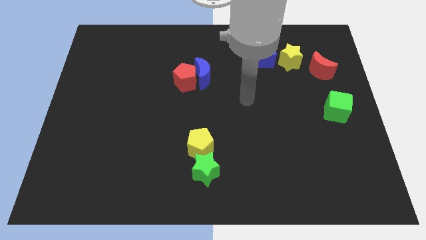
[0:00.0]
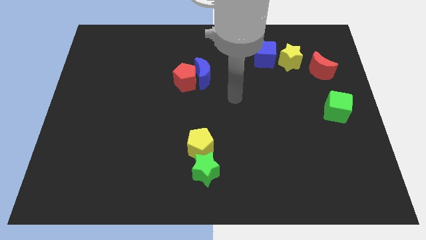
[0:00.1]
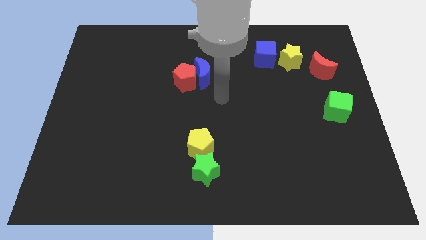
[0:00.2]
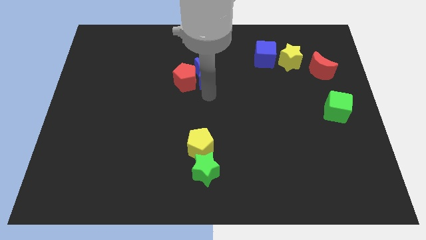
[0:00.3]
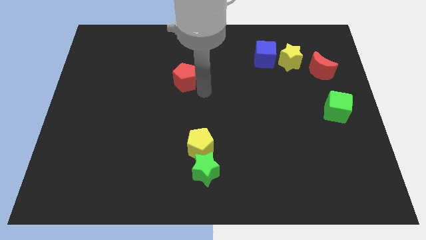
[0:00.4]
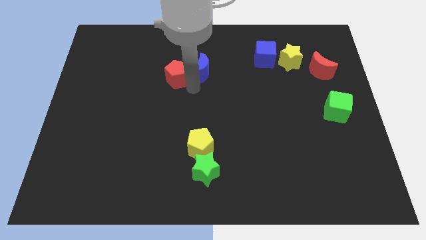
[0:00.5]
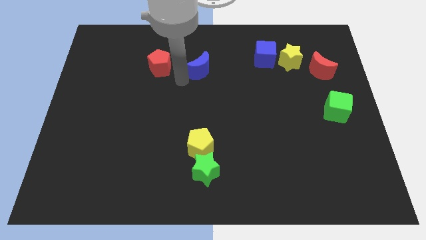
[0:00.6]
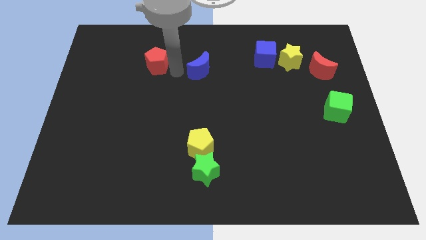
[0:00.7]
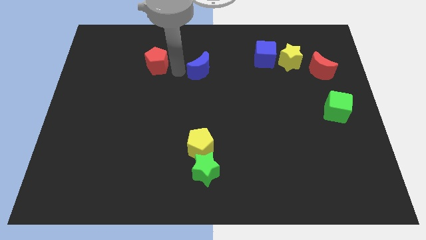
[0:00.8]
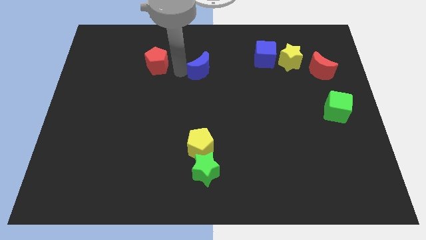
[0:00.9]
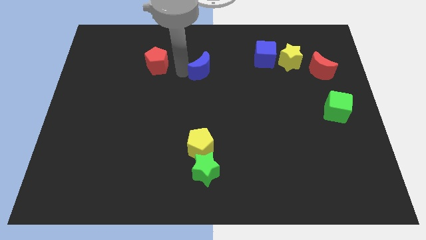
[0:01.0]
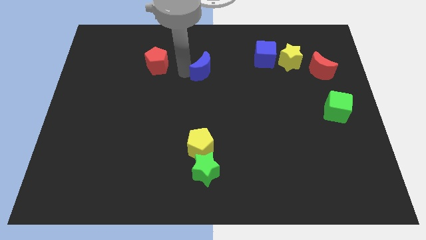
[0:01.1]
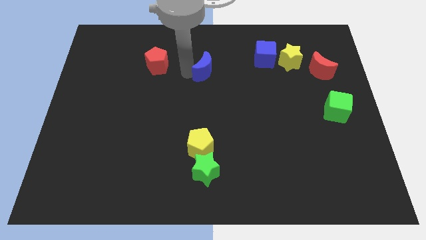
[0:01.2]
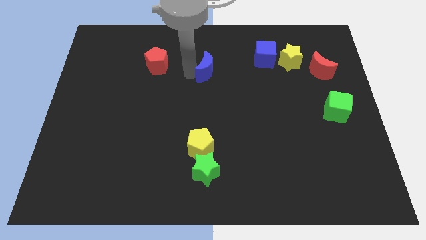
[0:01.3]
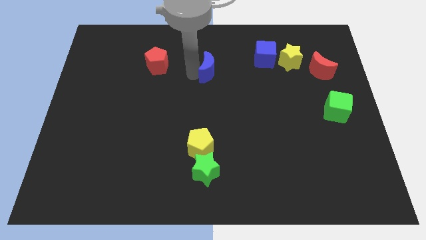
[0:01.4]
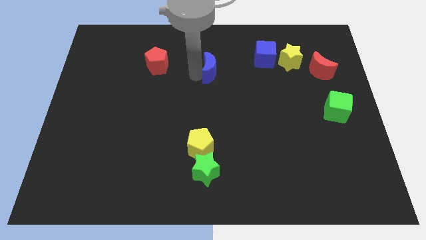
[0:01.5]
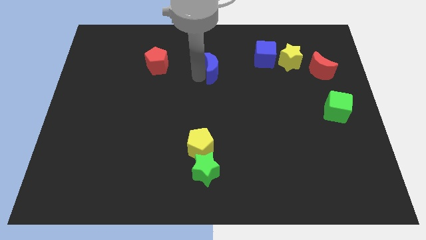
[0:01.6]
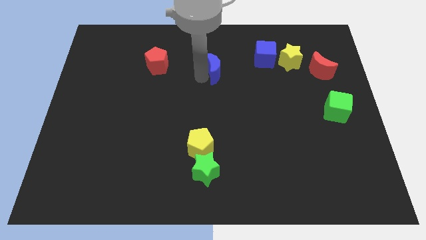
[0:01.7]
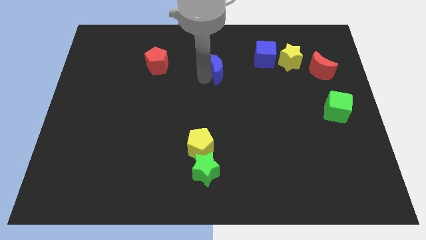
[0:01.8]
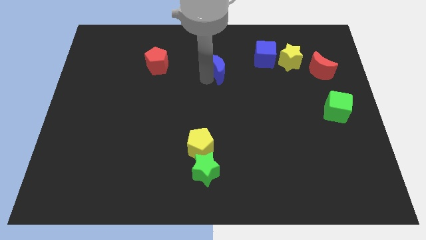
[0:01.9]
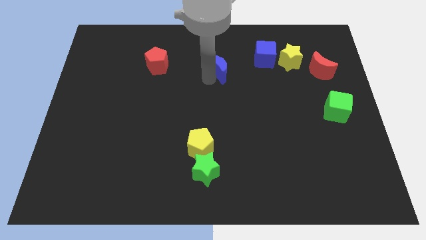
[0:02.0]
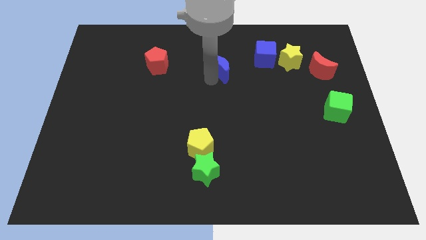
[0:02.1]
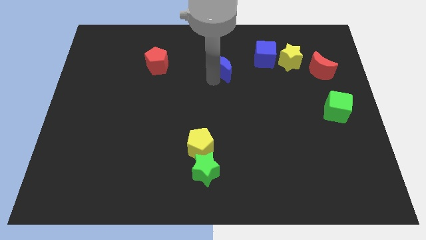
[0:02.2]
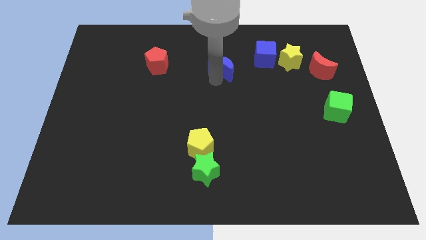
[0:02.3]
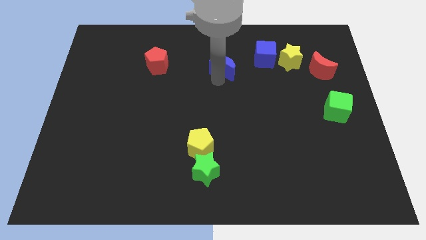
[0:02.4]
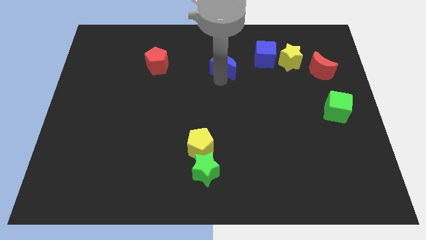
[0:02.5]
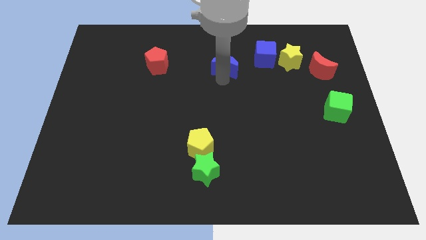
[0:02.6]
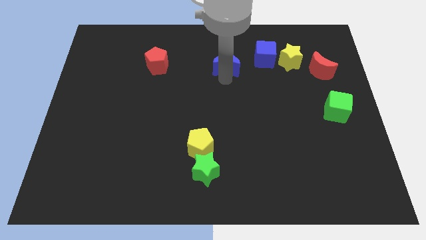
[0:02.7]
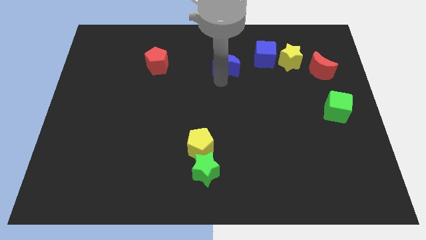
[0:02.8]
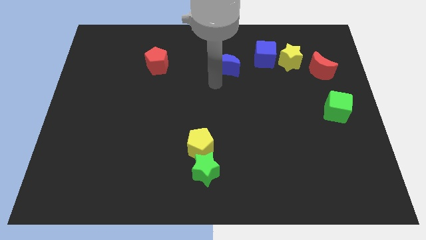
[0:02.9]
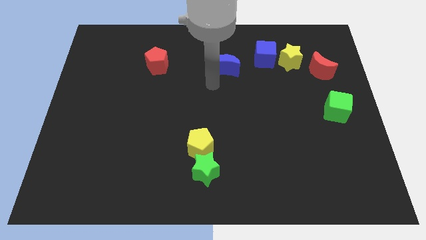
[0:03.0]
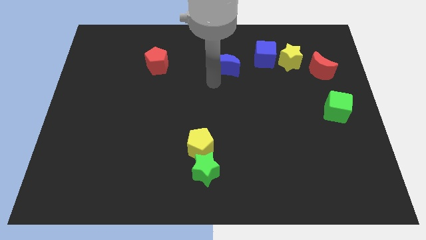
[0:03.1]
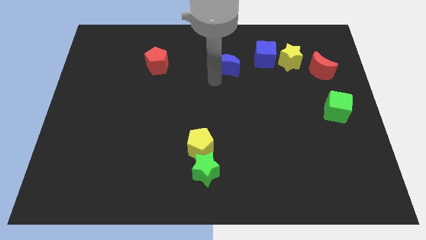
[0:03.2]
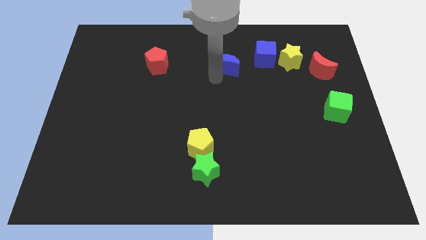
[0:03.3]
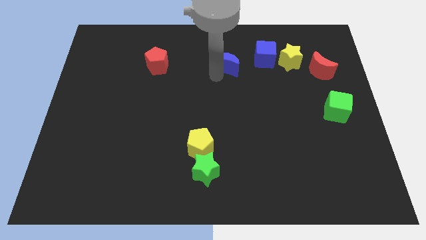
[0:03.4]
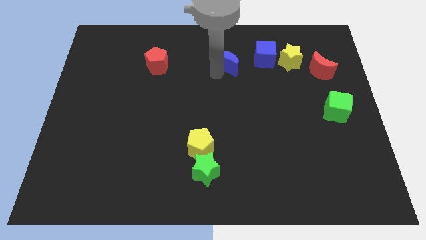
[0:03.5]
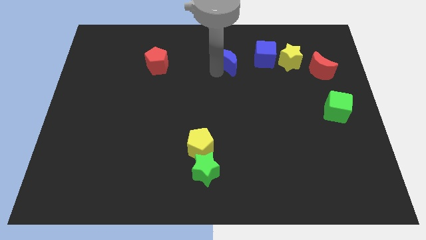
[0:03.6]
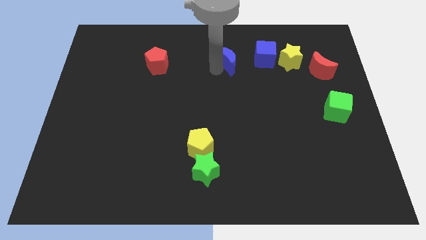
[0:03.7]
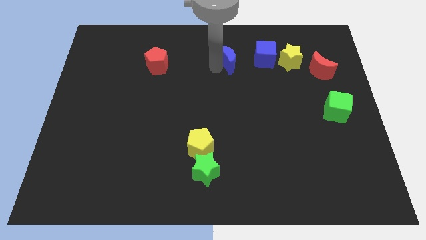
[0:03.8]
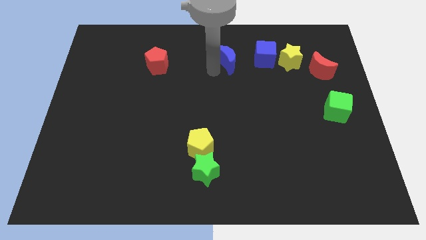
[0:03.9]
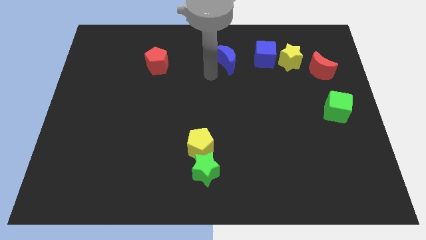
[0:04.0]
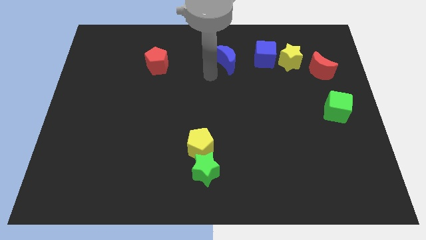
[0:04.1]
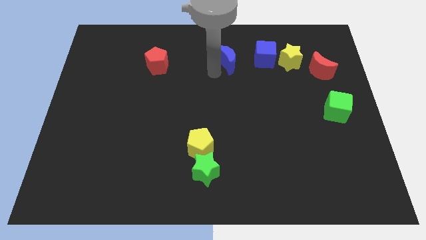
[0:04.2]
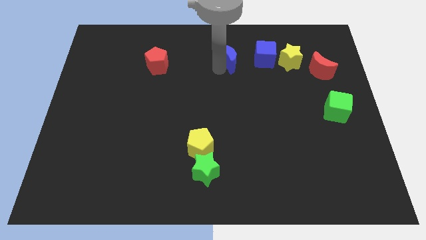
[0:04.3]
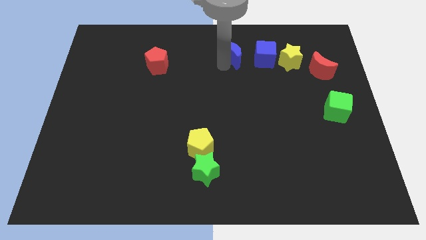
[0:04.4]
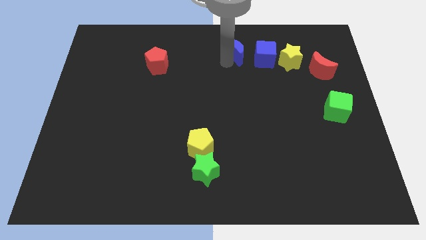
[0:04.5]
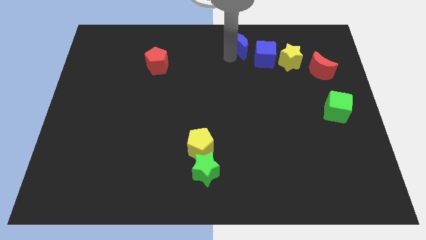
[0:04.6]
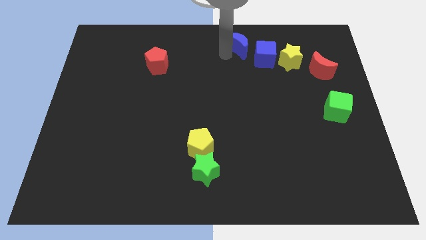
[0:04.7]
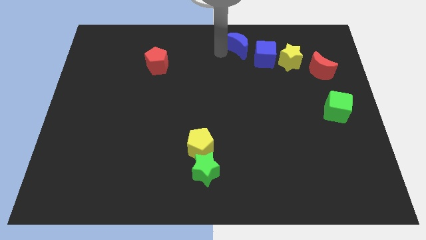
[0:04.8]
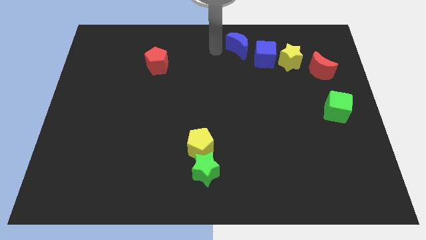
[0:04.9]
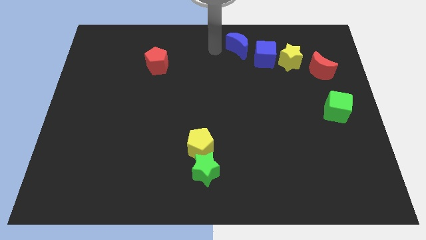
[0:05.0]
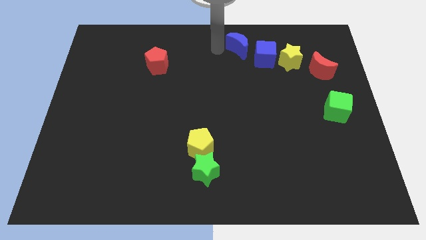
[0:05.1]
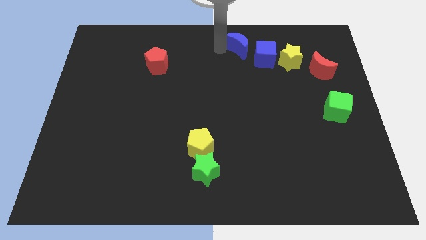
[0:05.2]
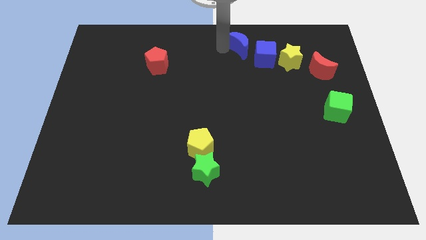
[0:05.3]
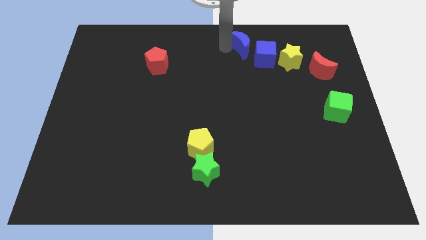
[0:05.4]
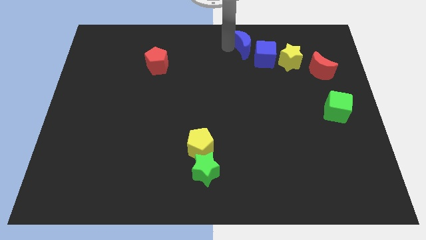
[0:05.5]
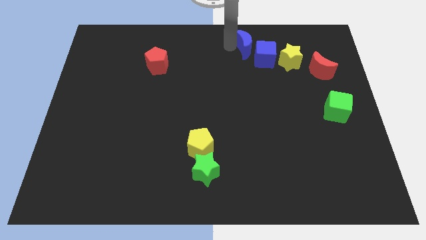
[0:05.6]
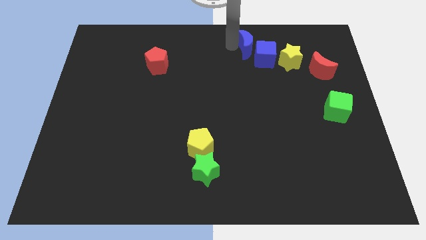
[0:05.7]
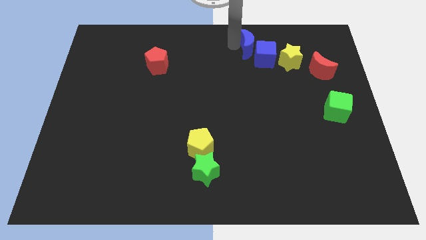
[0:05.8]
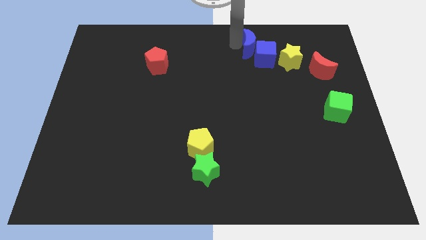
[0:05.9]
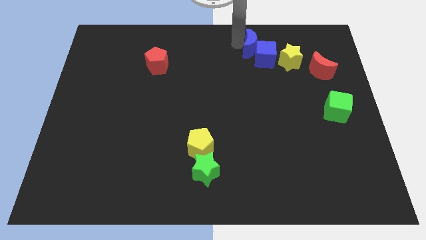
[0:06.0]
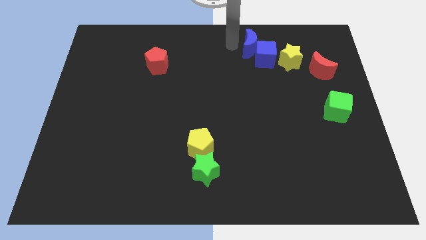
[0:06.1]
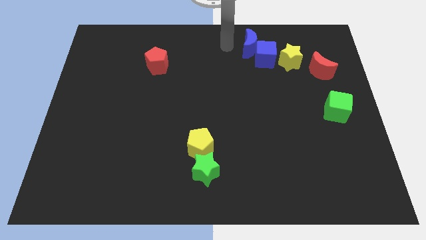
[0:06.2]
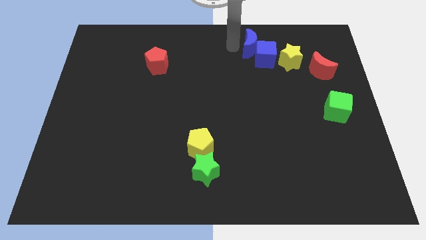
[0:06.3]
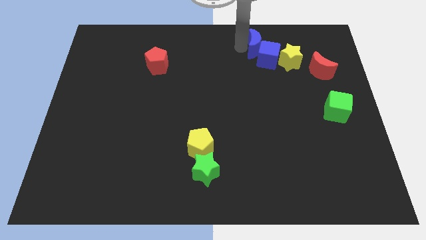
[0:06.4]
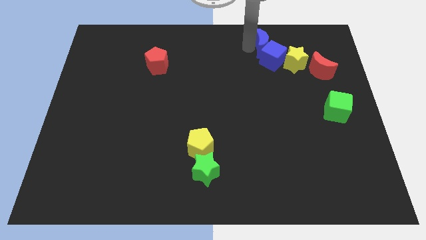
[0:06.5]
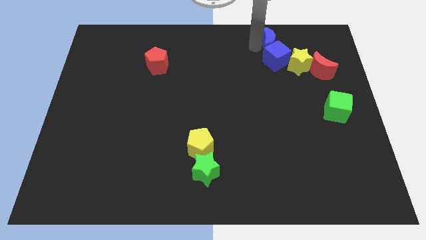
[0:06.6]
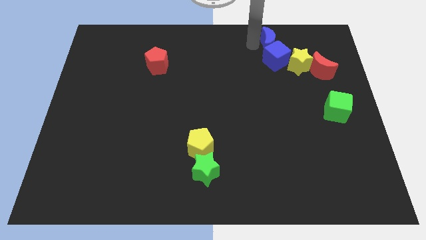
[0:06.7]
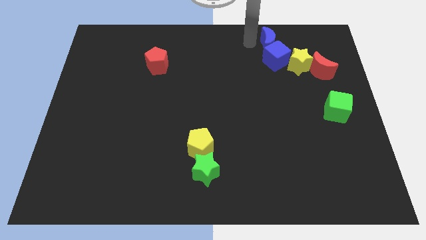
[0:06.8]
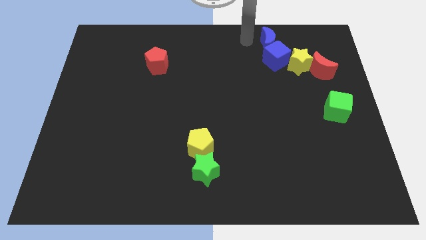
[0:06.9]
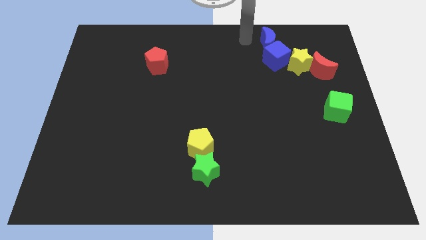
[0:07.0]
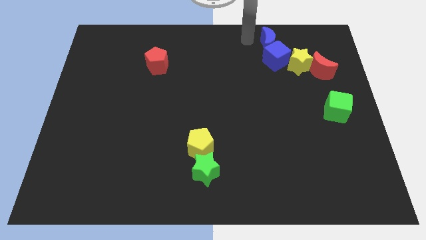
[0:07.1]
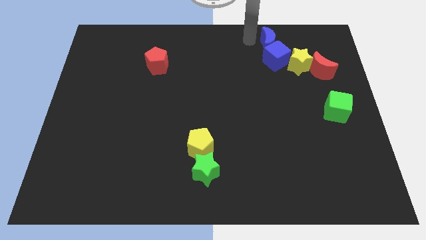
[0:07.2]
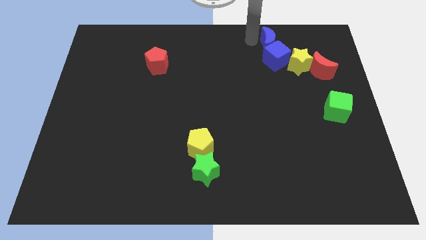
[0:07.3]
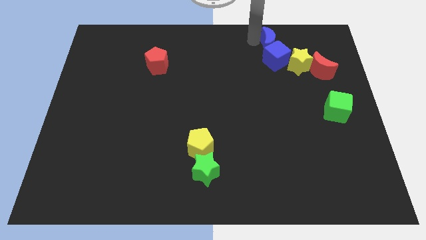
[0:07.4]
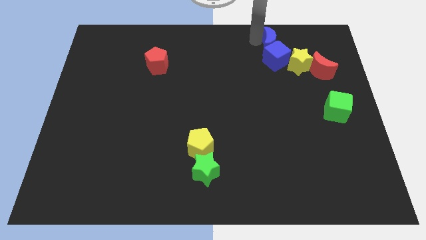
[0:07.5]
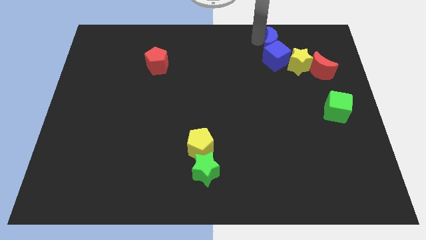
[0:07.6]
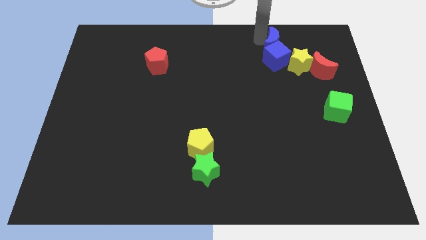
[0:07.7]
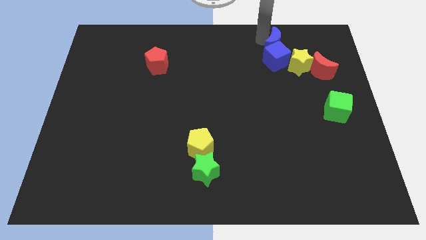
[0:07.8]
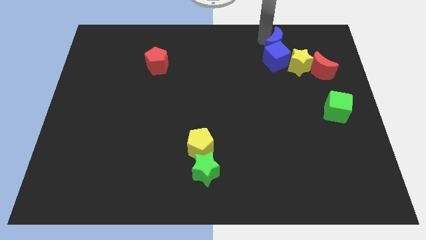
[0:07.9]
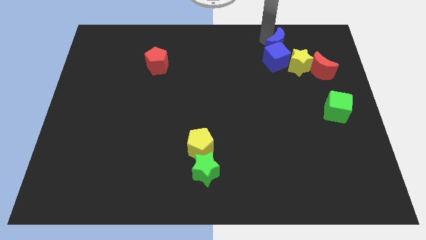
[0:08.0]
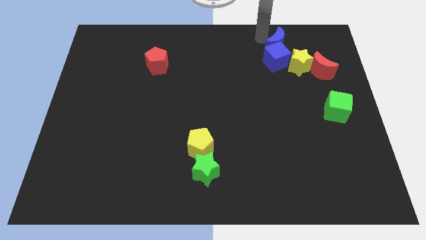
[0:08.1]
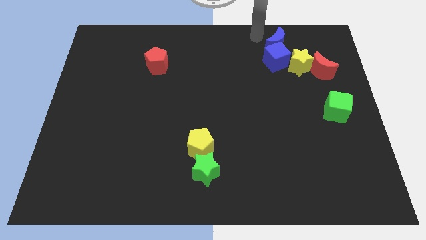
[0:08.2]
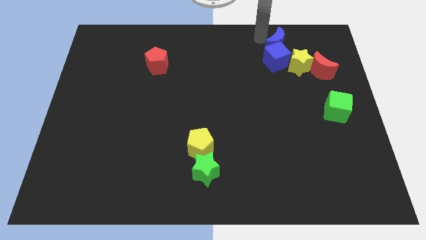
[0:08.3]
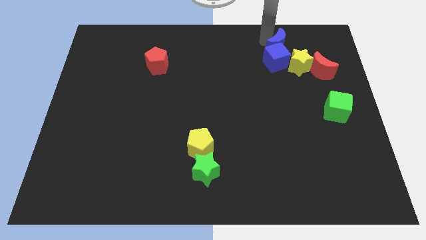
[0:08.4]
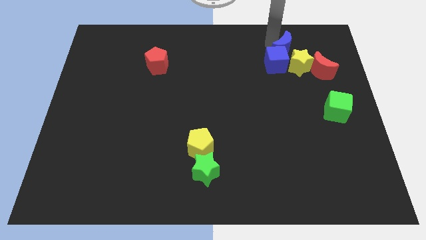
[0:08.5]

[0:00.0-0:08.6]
put the blue moon to the top left of the red moon
